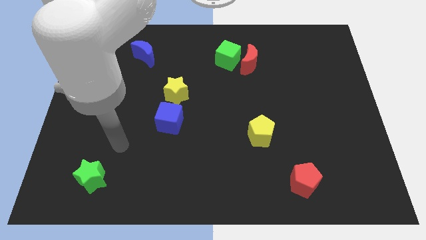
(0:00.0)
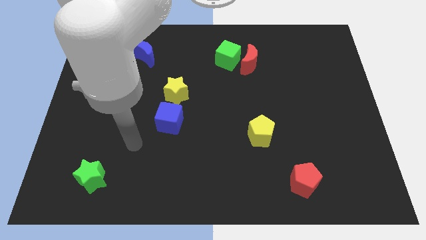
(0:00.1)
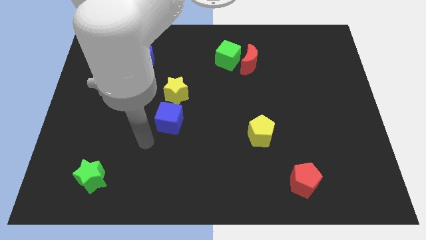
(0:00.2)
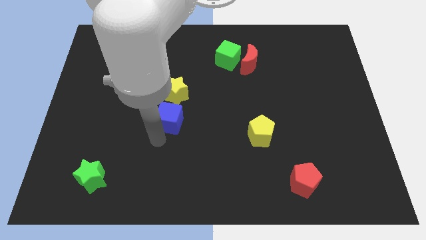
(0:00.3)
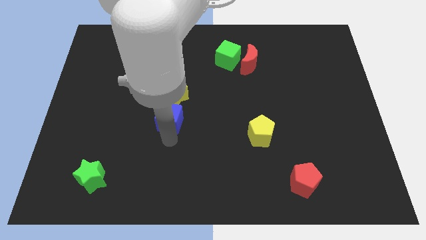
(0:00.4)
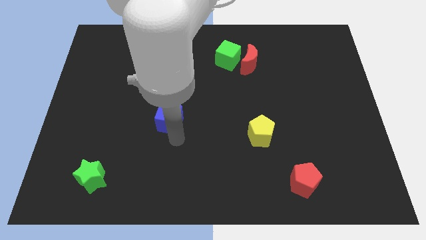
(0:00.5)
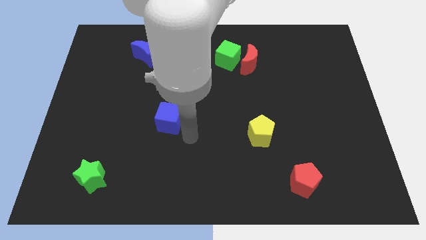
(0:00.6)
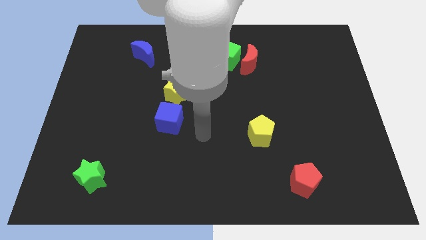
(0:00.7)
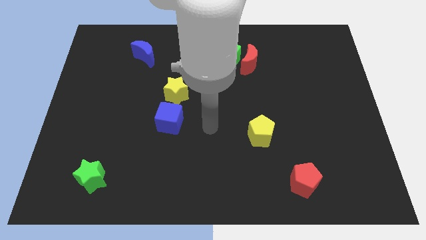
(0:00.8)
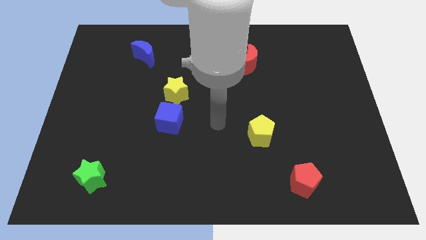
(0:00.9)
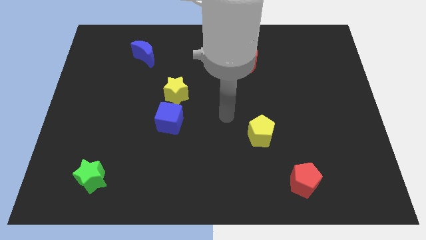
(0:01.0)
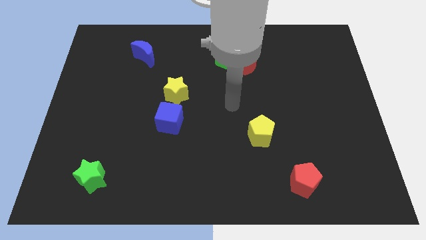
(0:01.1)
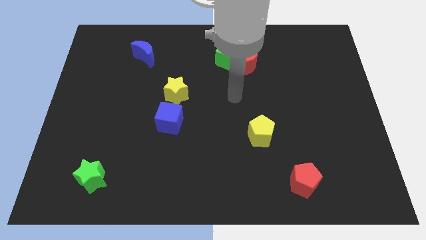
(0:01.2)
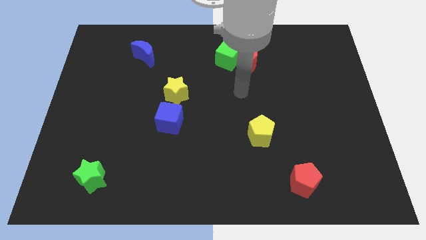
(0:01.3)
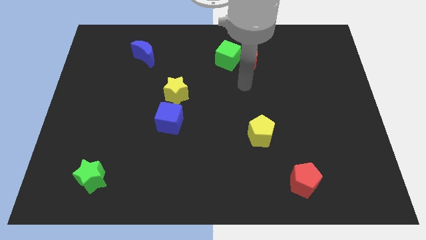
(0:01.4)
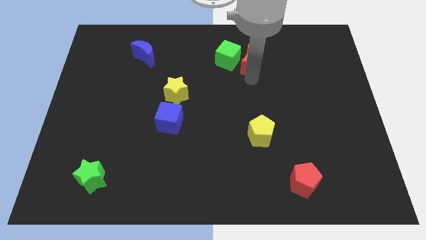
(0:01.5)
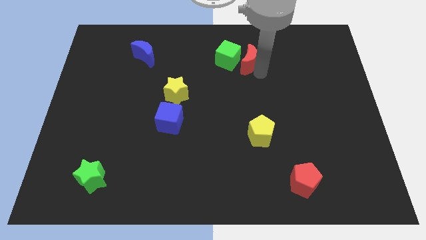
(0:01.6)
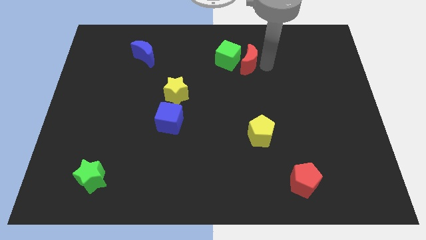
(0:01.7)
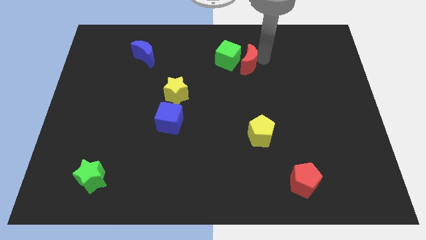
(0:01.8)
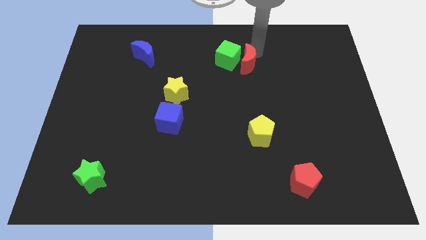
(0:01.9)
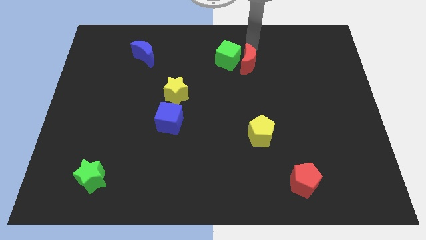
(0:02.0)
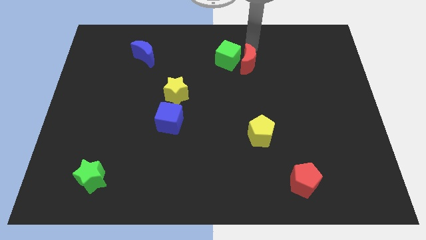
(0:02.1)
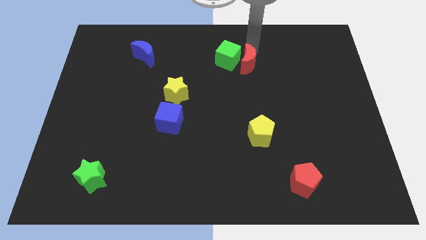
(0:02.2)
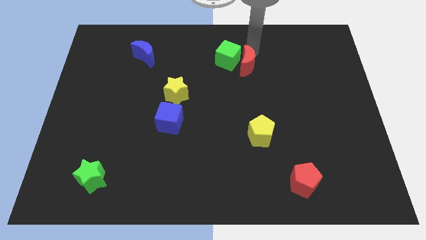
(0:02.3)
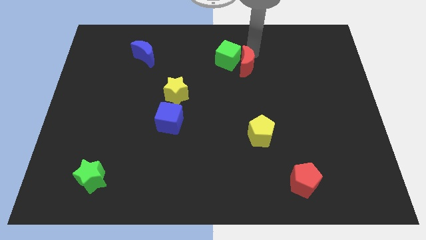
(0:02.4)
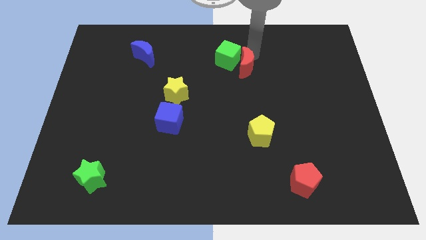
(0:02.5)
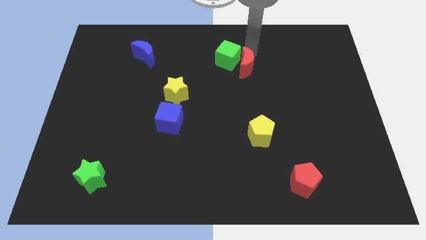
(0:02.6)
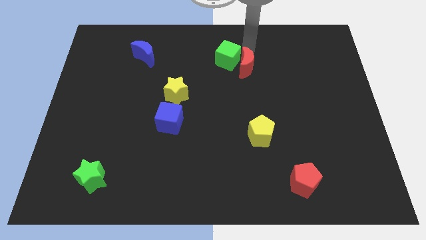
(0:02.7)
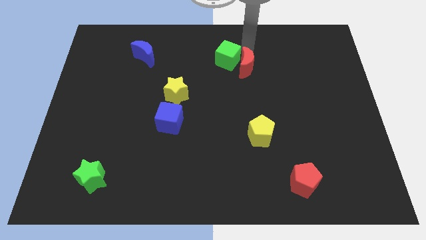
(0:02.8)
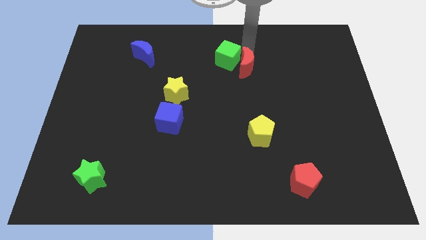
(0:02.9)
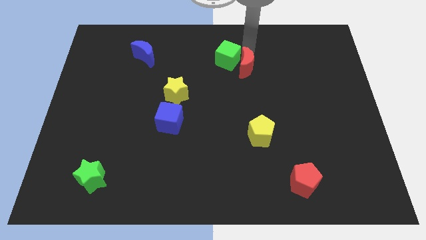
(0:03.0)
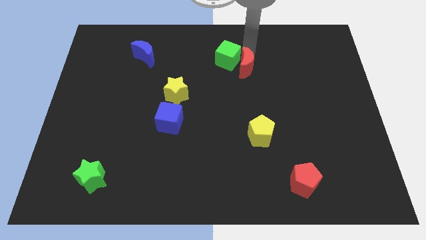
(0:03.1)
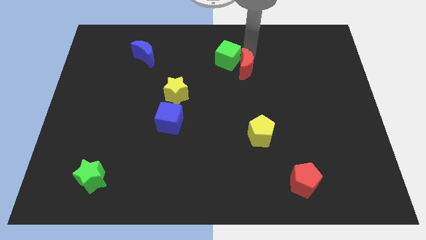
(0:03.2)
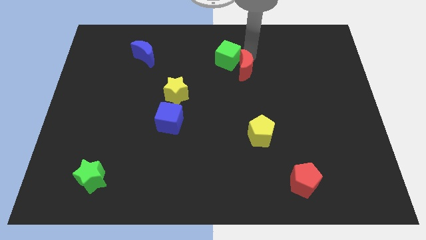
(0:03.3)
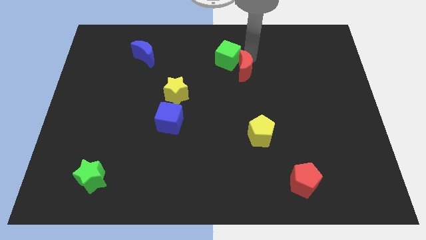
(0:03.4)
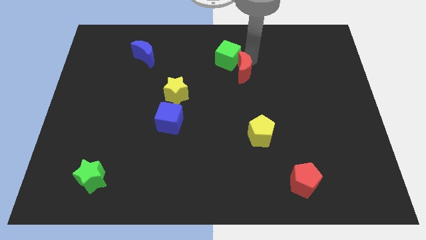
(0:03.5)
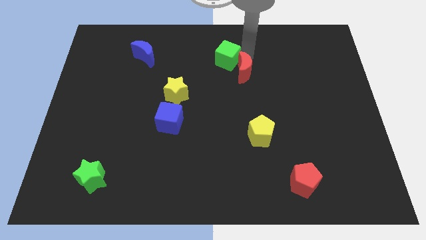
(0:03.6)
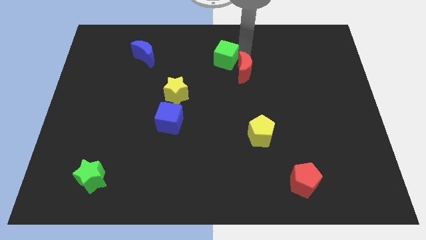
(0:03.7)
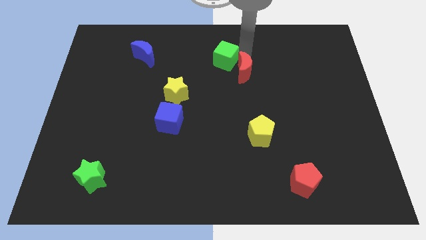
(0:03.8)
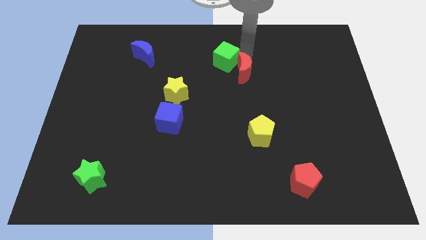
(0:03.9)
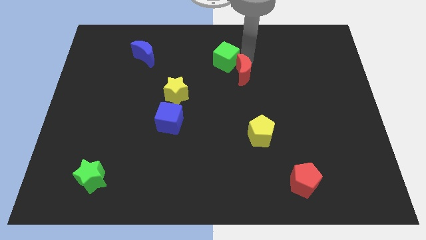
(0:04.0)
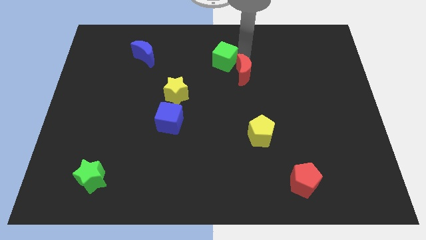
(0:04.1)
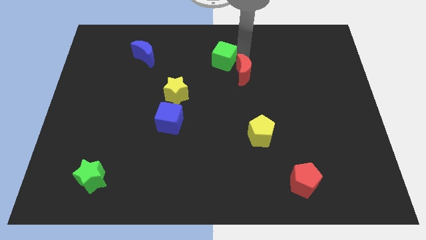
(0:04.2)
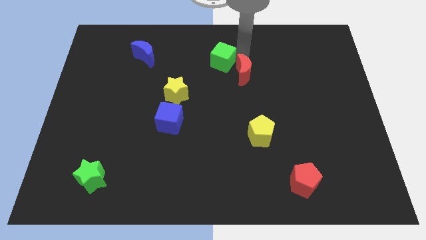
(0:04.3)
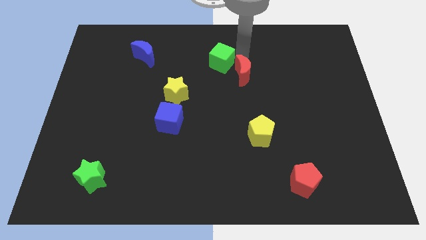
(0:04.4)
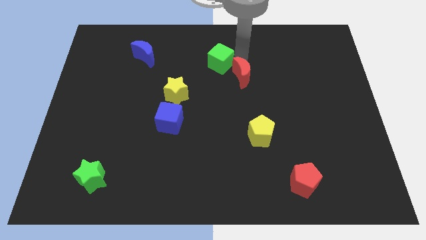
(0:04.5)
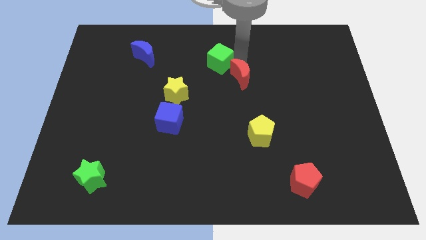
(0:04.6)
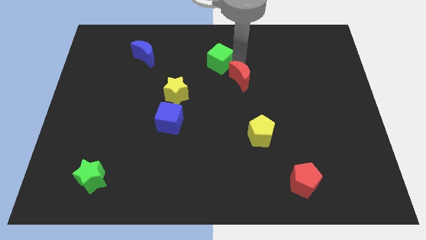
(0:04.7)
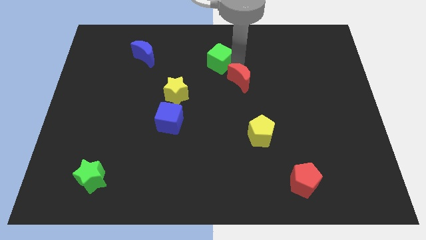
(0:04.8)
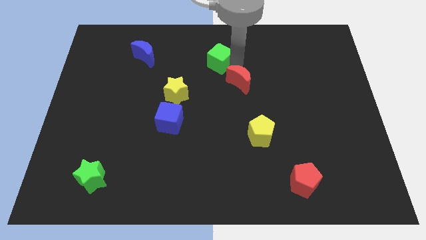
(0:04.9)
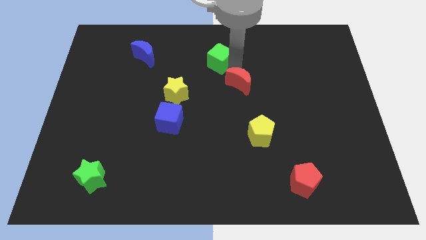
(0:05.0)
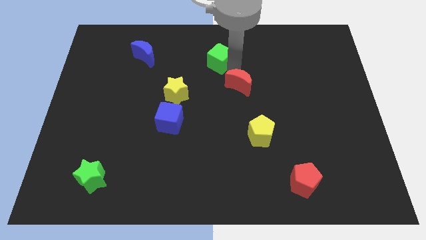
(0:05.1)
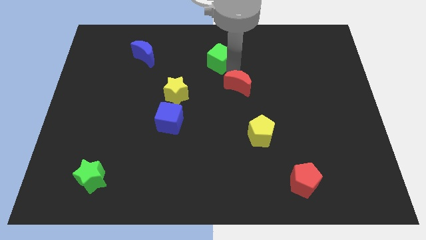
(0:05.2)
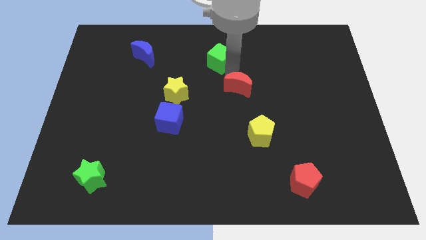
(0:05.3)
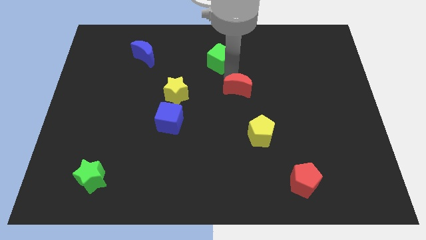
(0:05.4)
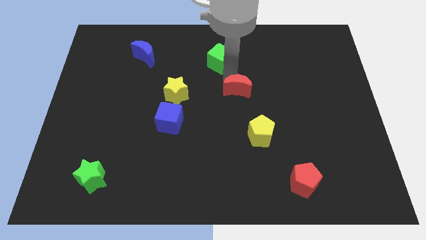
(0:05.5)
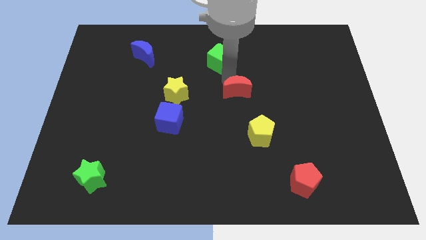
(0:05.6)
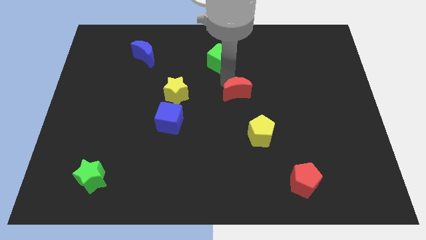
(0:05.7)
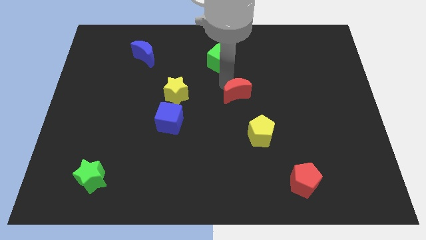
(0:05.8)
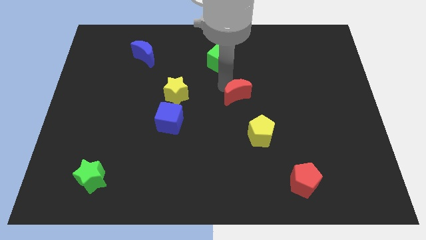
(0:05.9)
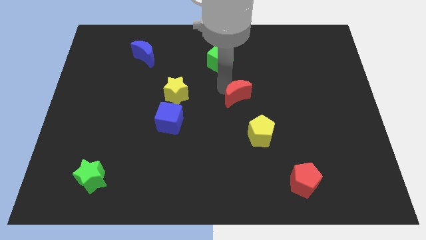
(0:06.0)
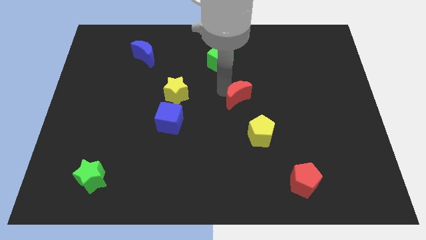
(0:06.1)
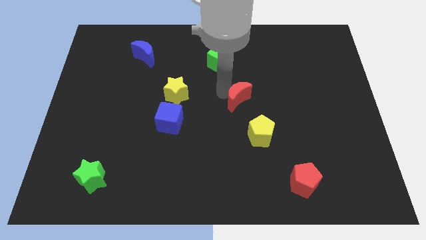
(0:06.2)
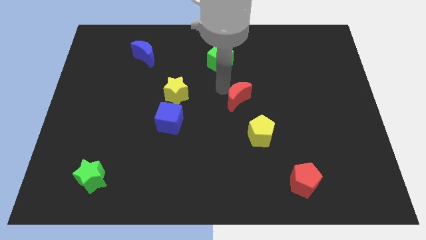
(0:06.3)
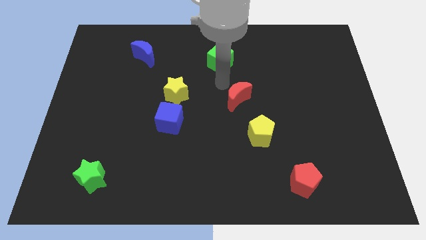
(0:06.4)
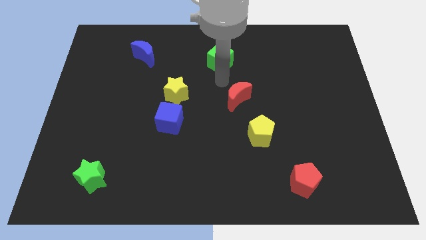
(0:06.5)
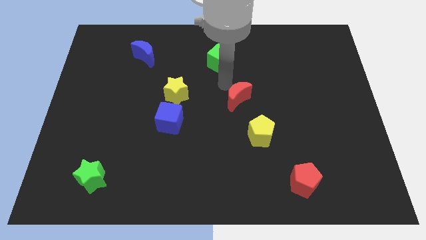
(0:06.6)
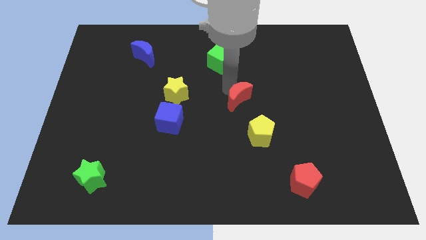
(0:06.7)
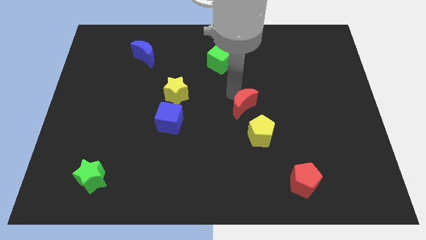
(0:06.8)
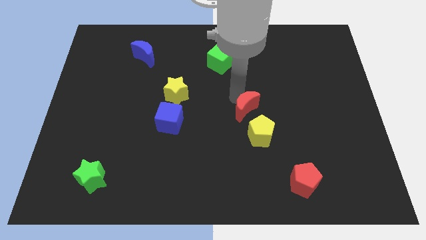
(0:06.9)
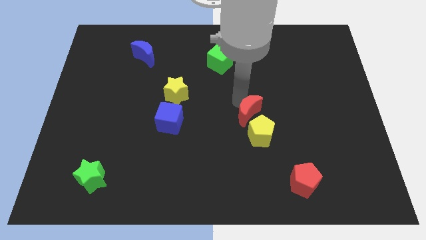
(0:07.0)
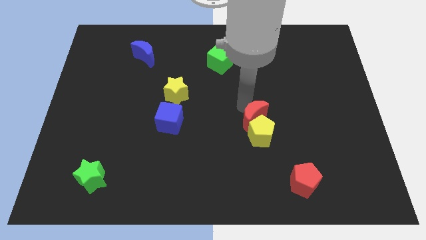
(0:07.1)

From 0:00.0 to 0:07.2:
push the red moon next to the yellow pentagon
